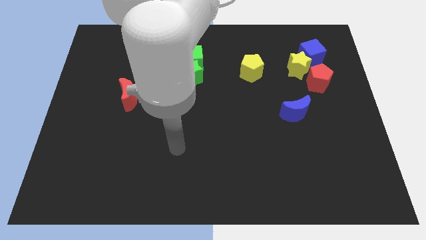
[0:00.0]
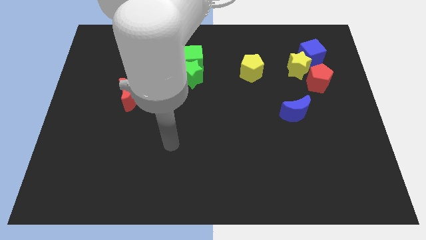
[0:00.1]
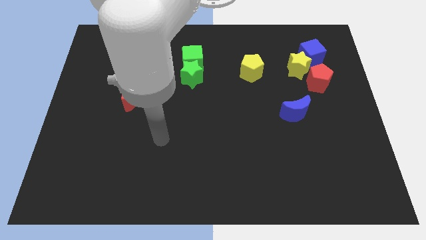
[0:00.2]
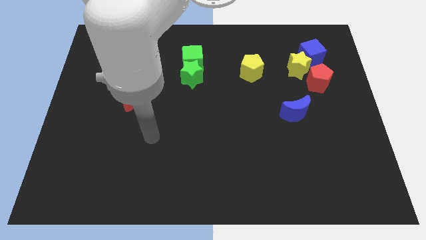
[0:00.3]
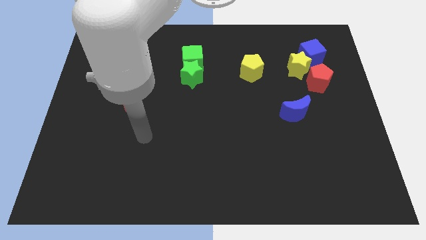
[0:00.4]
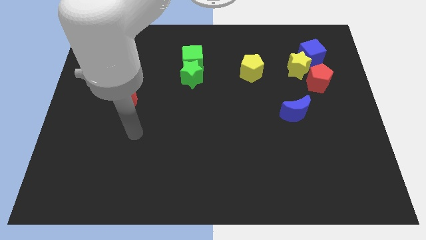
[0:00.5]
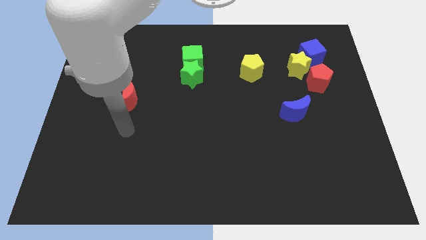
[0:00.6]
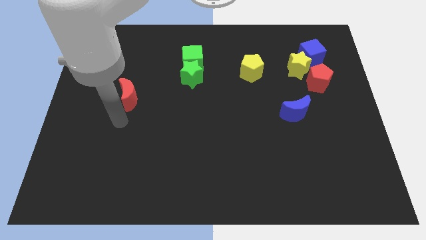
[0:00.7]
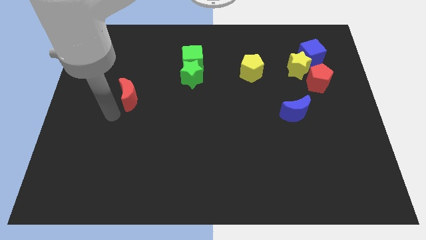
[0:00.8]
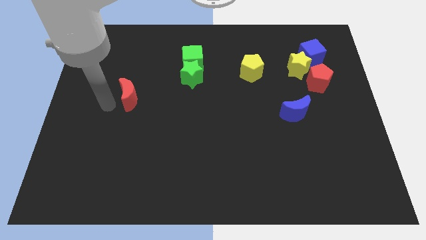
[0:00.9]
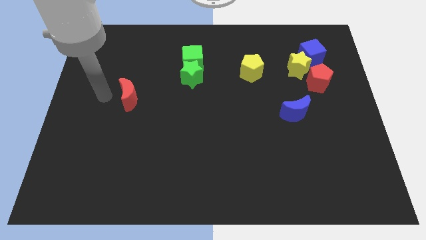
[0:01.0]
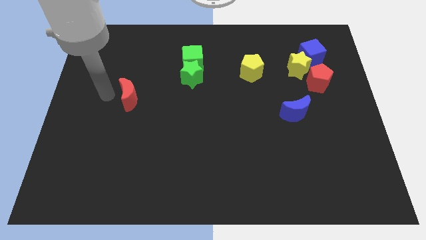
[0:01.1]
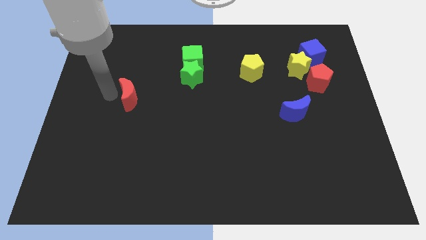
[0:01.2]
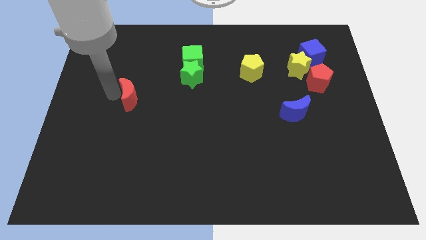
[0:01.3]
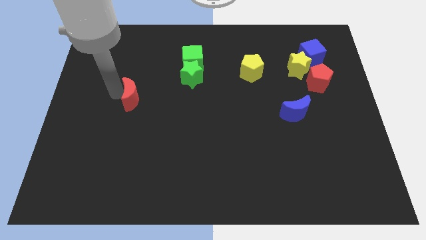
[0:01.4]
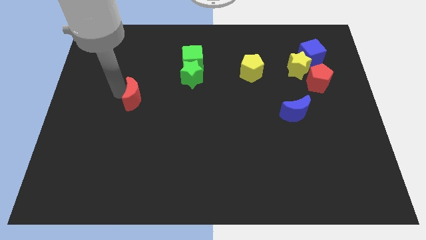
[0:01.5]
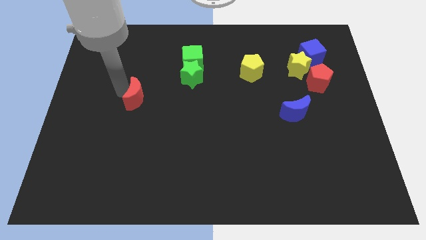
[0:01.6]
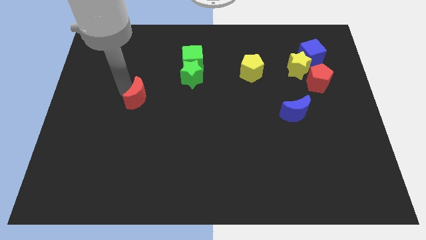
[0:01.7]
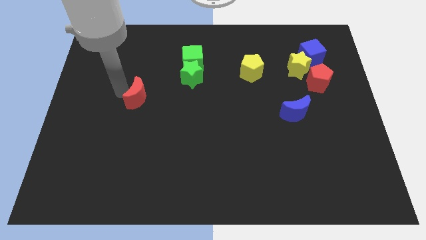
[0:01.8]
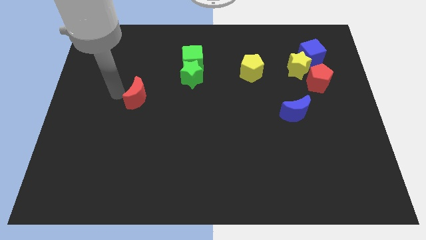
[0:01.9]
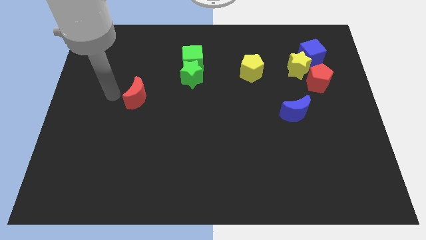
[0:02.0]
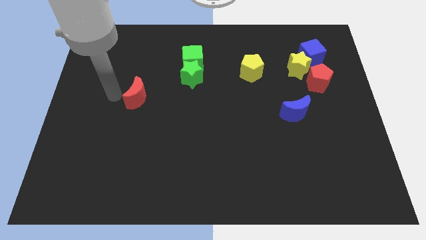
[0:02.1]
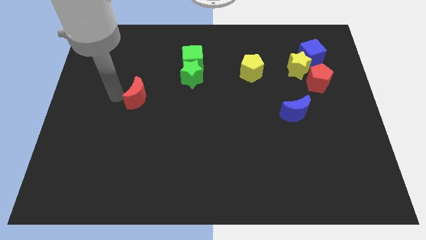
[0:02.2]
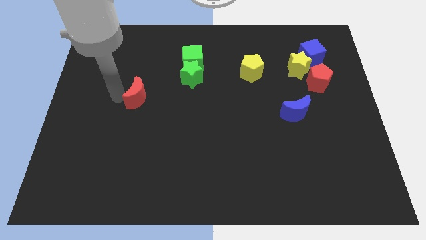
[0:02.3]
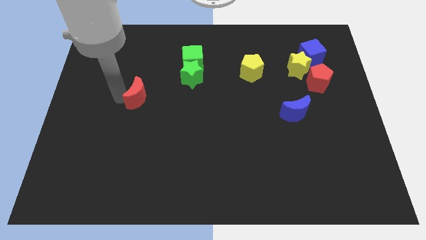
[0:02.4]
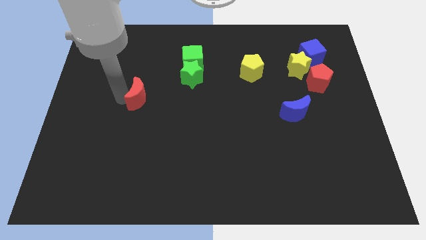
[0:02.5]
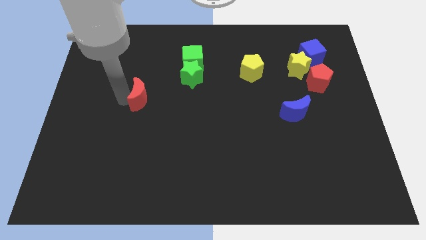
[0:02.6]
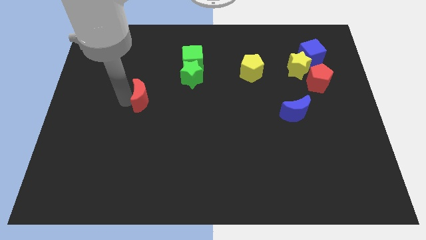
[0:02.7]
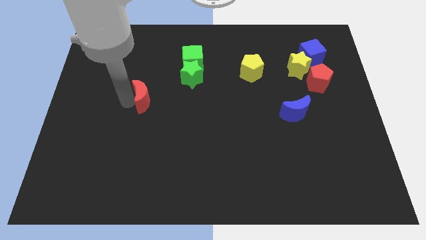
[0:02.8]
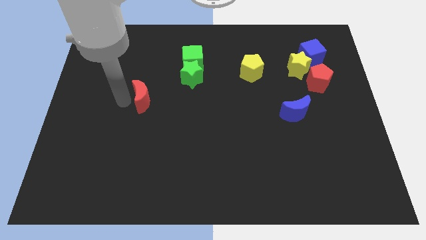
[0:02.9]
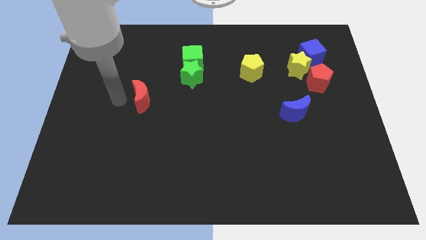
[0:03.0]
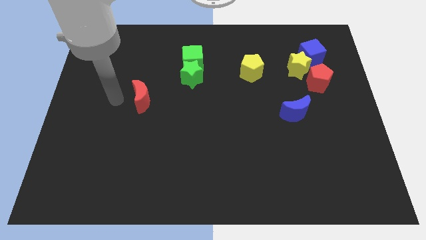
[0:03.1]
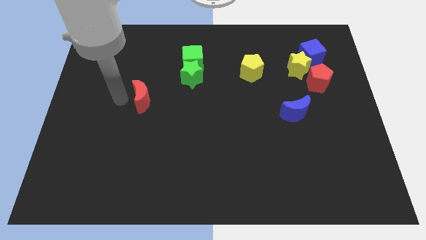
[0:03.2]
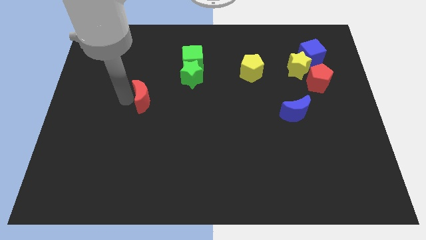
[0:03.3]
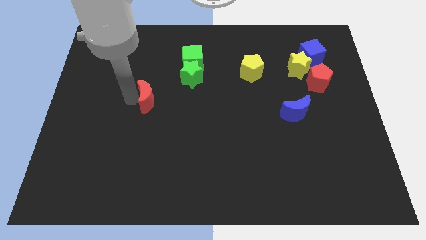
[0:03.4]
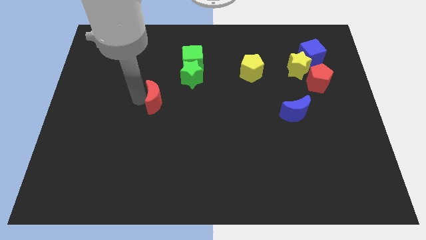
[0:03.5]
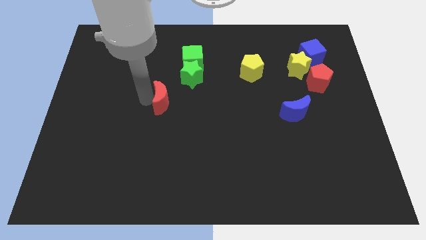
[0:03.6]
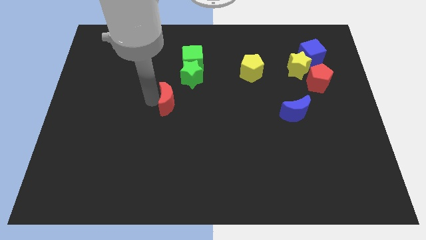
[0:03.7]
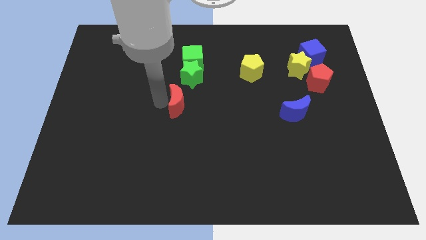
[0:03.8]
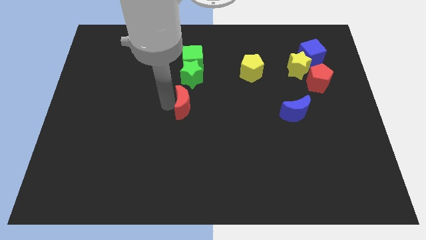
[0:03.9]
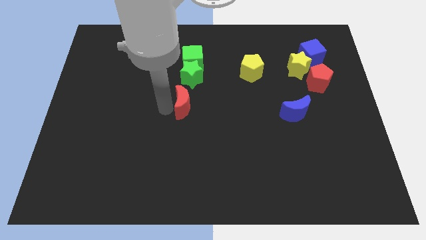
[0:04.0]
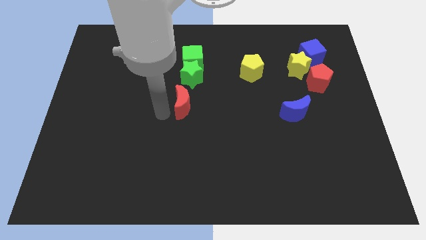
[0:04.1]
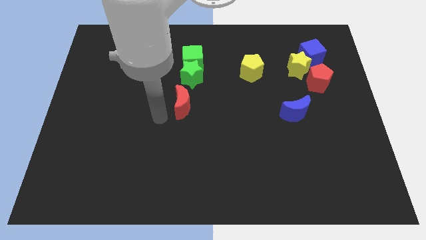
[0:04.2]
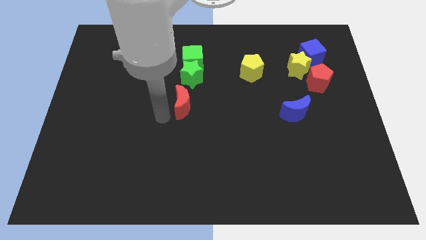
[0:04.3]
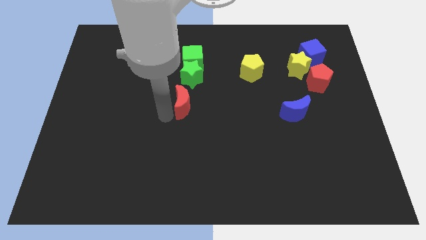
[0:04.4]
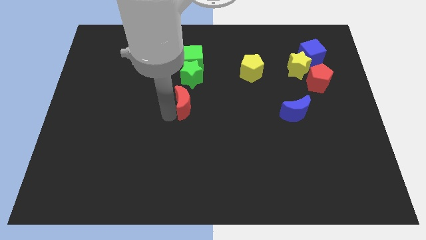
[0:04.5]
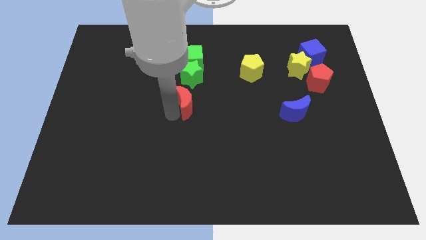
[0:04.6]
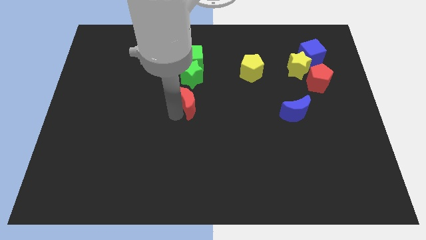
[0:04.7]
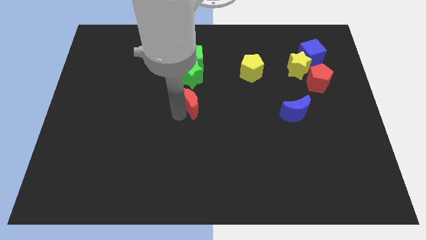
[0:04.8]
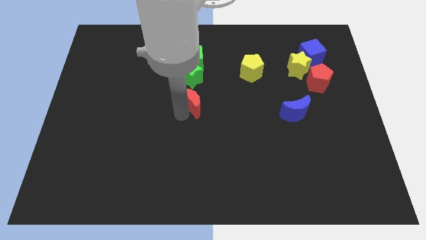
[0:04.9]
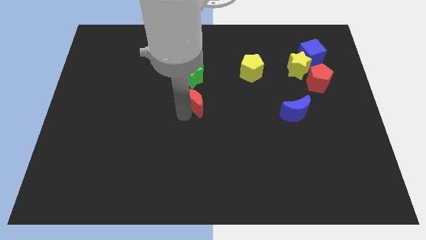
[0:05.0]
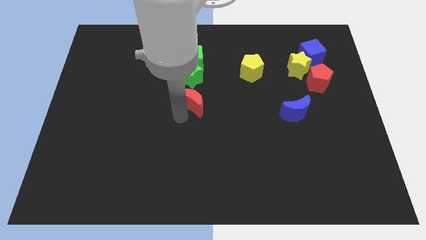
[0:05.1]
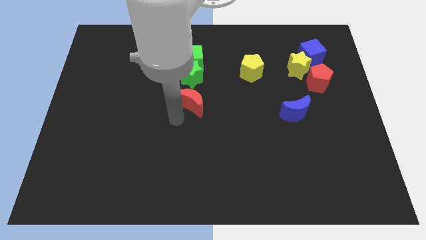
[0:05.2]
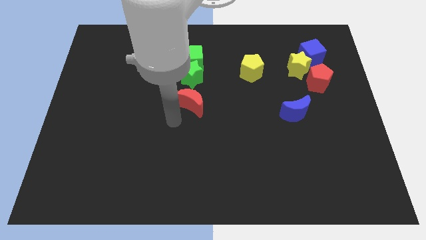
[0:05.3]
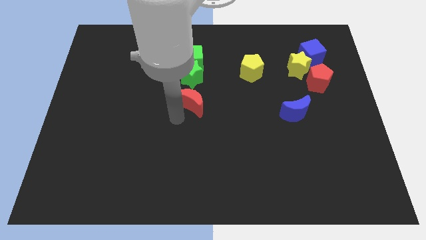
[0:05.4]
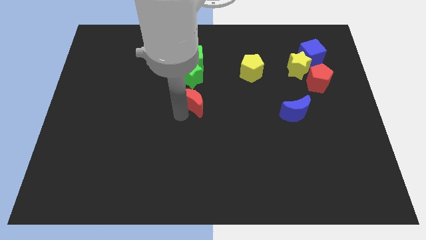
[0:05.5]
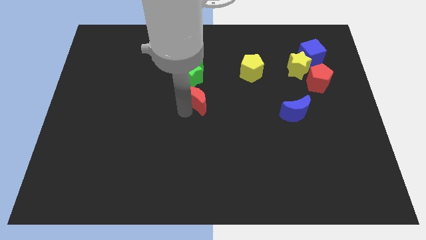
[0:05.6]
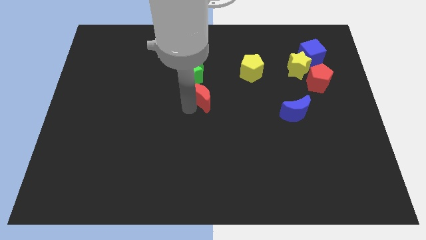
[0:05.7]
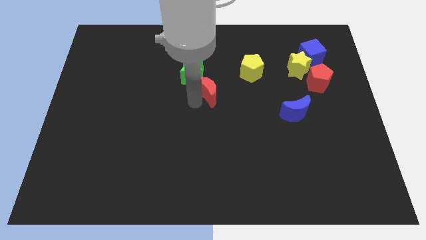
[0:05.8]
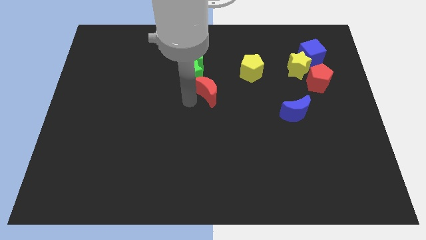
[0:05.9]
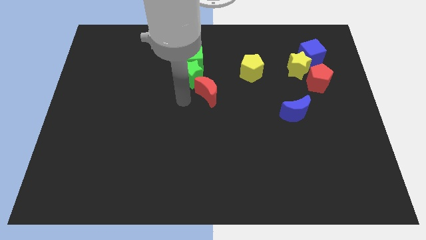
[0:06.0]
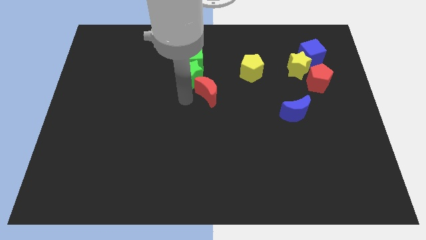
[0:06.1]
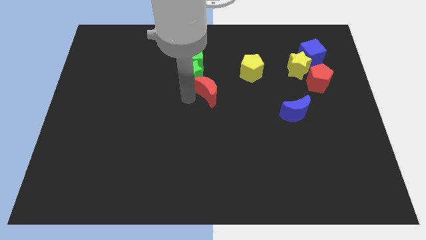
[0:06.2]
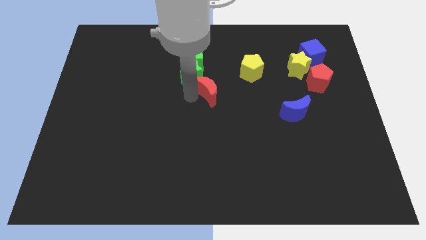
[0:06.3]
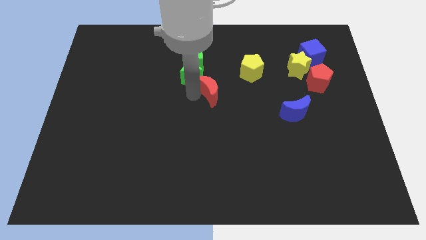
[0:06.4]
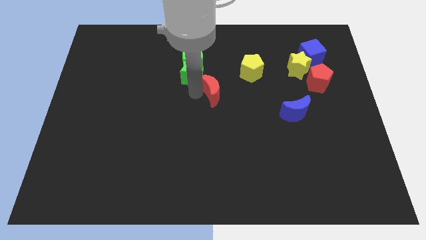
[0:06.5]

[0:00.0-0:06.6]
push the red moon diagonally down and to the left of the yellow pentagon
